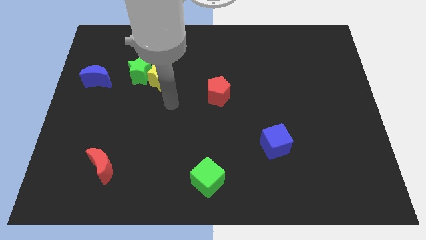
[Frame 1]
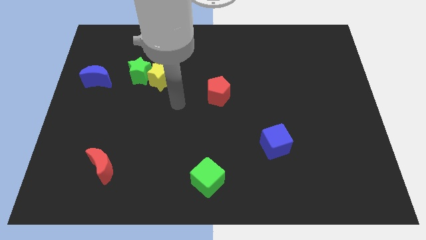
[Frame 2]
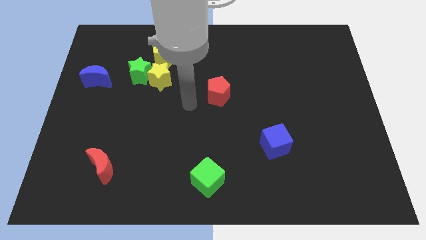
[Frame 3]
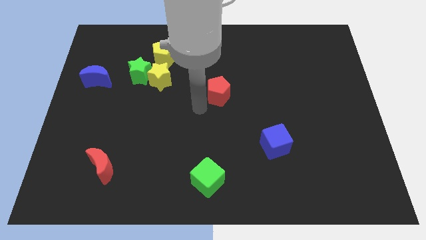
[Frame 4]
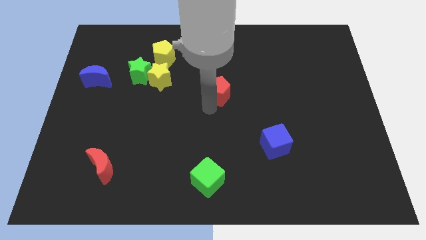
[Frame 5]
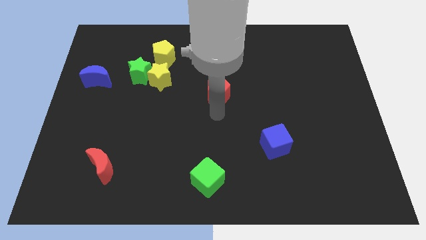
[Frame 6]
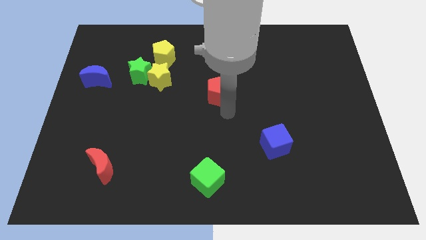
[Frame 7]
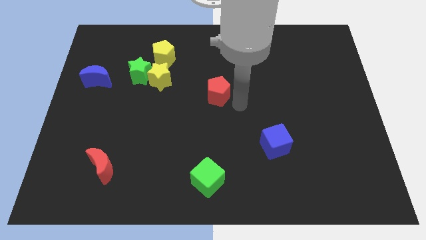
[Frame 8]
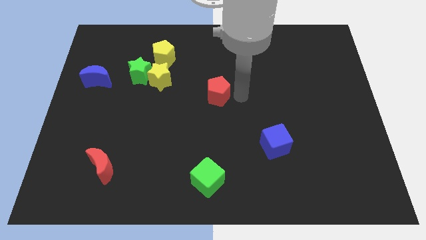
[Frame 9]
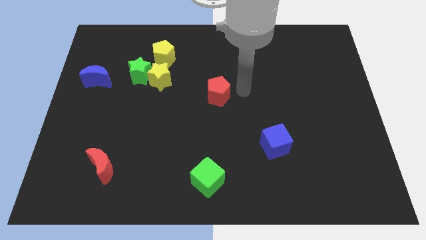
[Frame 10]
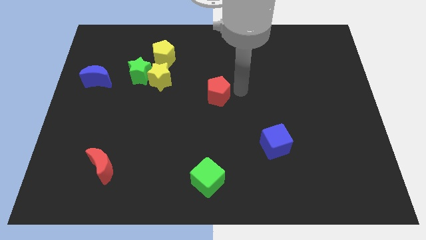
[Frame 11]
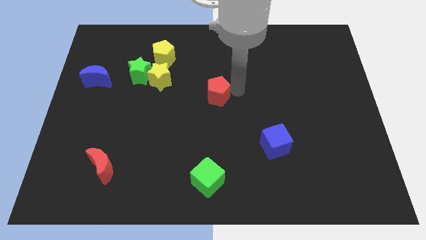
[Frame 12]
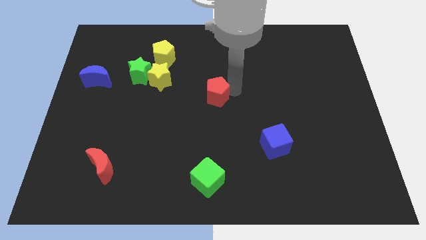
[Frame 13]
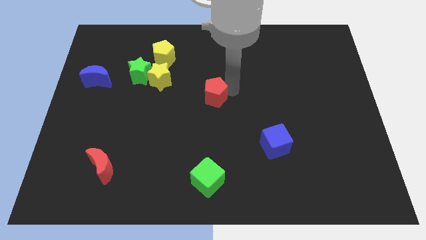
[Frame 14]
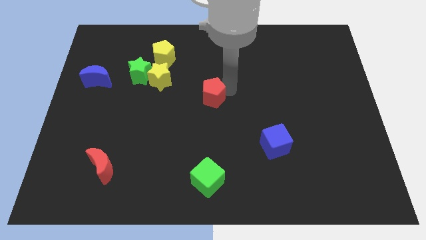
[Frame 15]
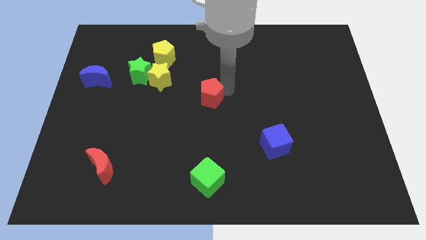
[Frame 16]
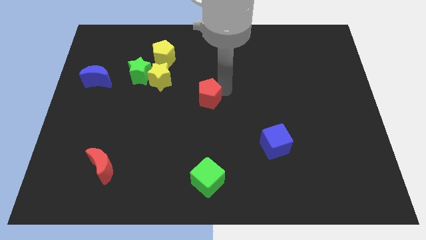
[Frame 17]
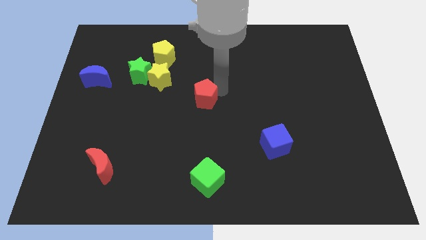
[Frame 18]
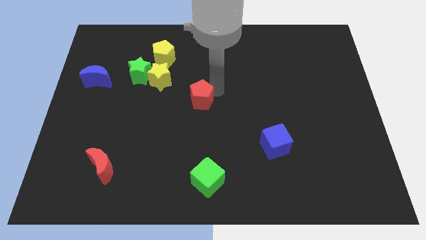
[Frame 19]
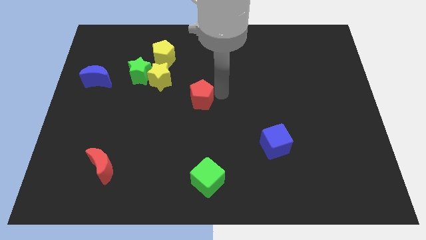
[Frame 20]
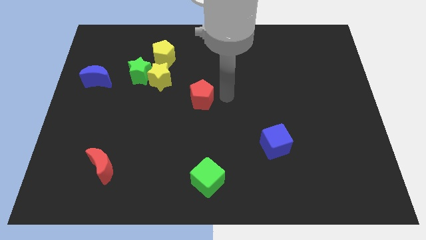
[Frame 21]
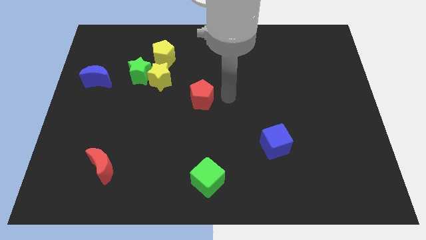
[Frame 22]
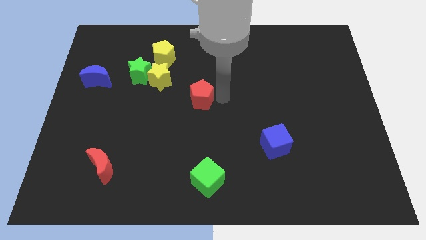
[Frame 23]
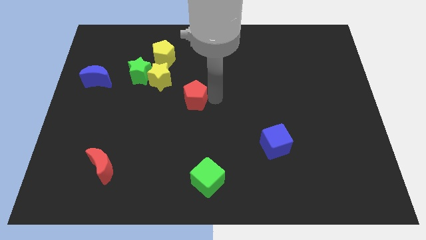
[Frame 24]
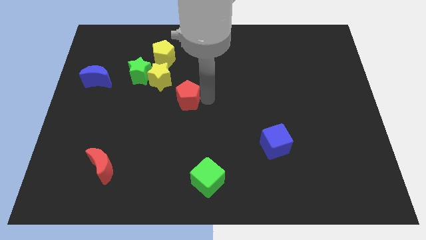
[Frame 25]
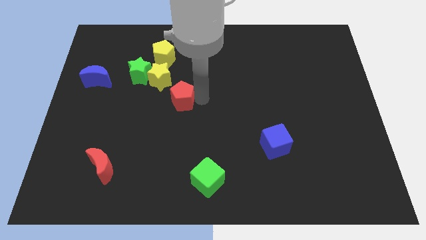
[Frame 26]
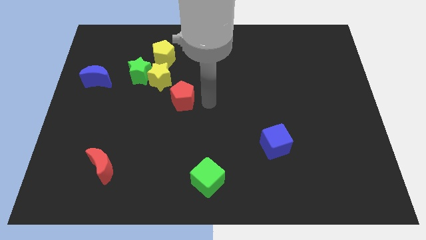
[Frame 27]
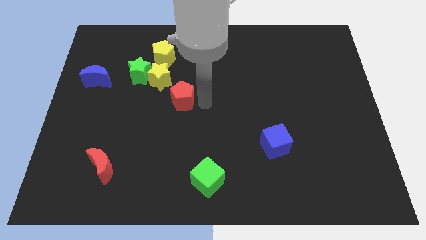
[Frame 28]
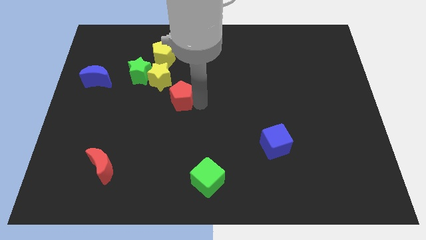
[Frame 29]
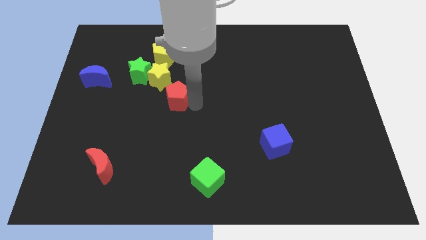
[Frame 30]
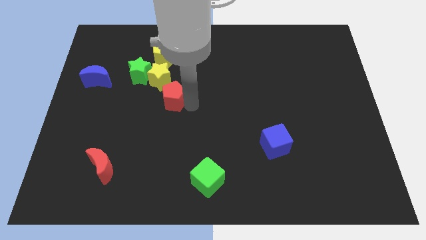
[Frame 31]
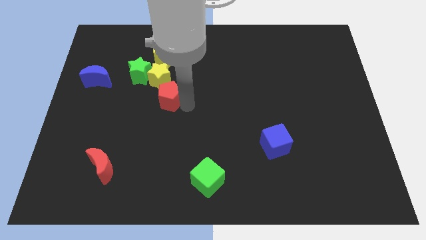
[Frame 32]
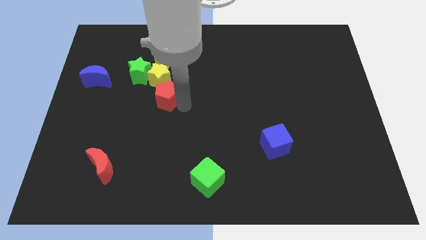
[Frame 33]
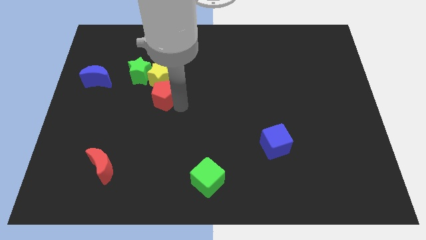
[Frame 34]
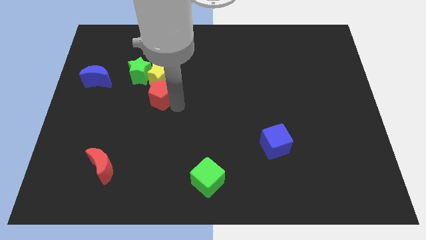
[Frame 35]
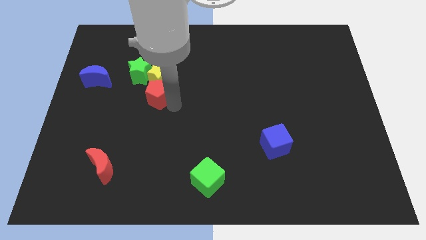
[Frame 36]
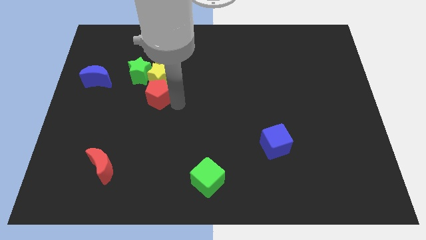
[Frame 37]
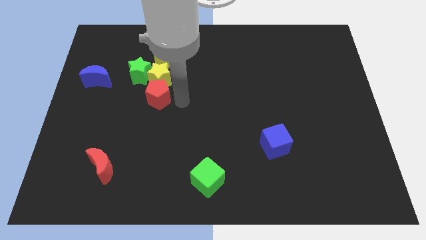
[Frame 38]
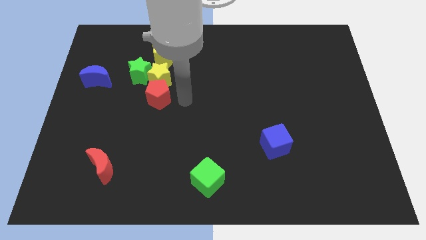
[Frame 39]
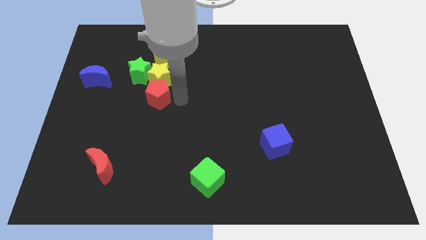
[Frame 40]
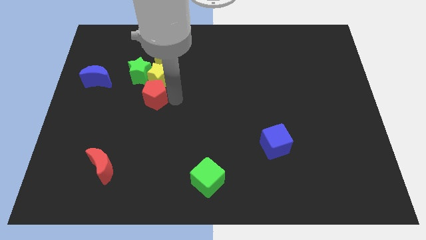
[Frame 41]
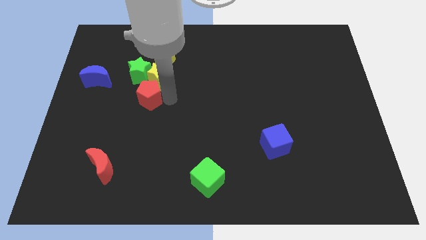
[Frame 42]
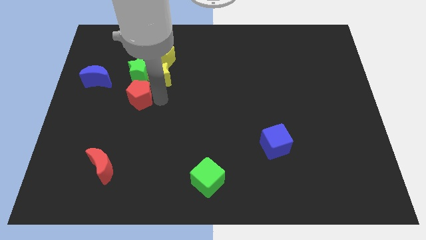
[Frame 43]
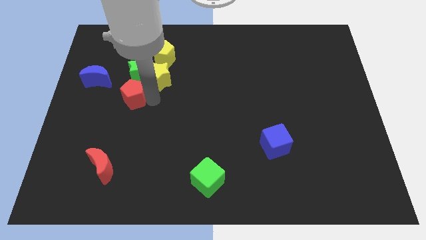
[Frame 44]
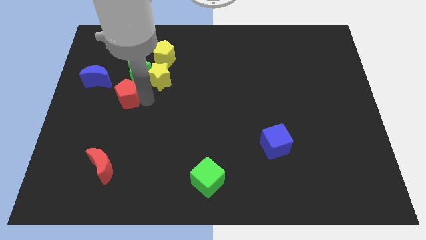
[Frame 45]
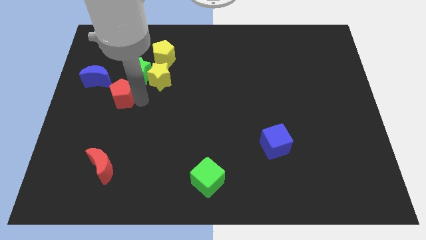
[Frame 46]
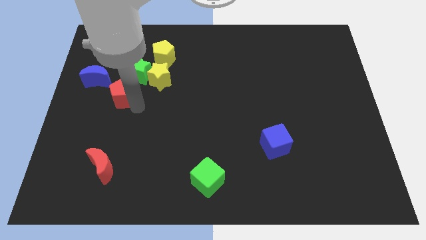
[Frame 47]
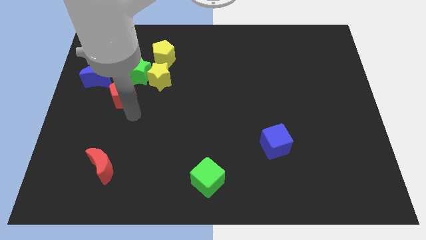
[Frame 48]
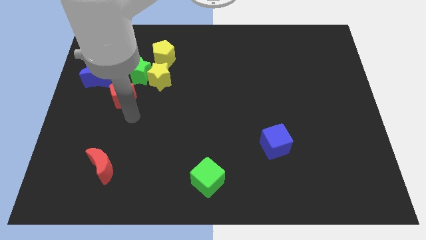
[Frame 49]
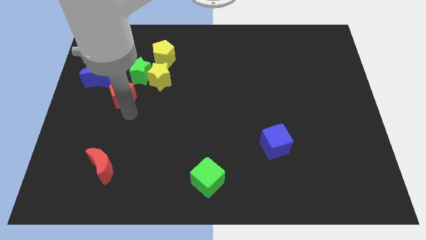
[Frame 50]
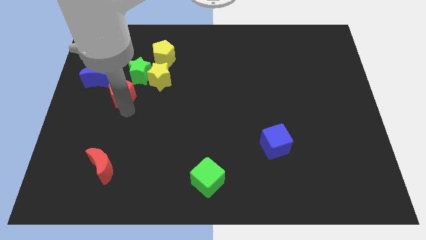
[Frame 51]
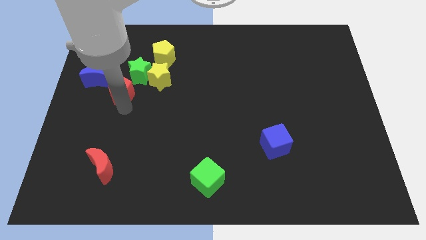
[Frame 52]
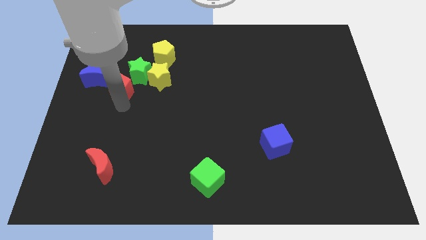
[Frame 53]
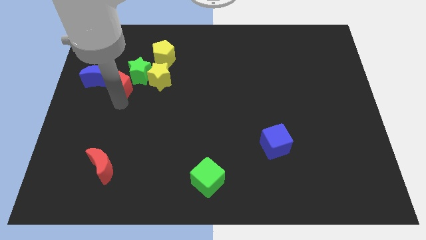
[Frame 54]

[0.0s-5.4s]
move the red pentagon to the left of the green star

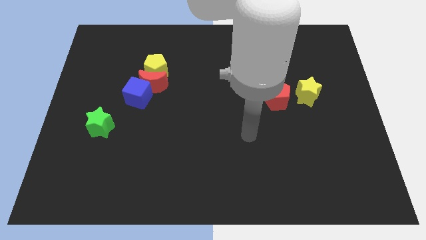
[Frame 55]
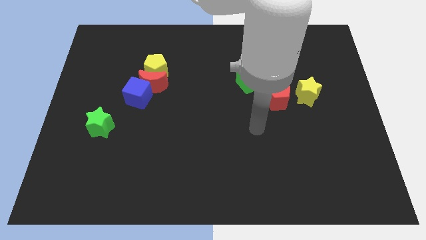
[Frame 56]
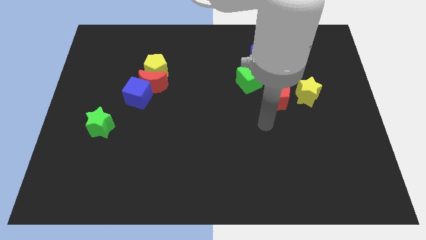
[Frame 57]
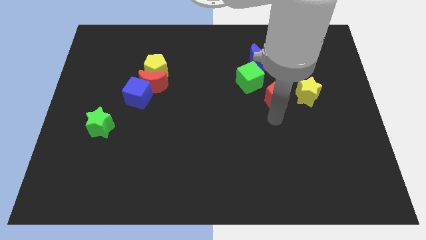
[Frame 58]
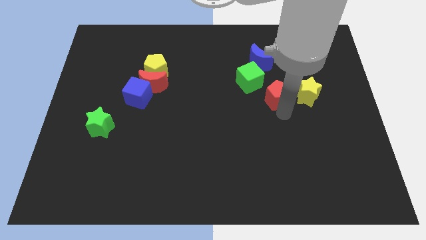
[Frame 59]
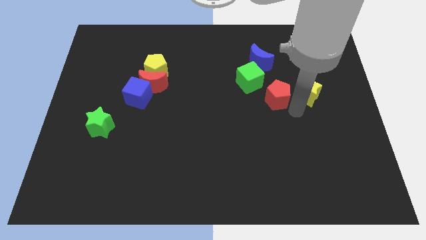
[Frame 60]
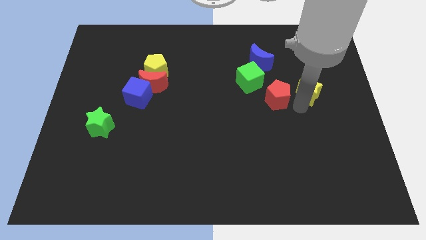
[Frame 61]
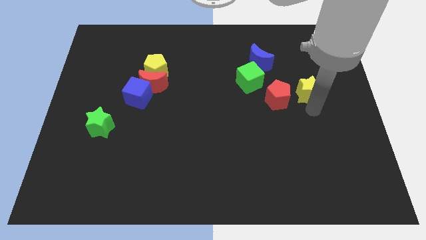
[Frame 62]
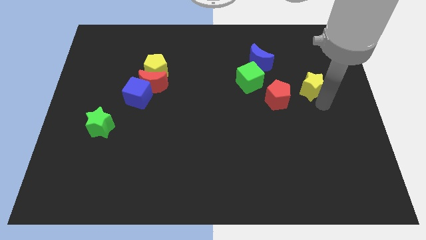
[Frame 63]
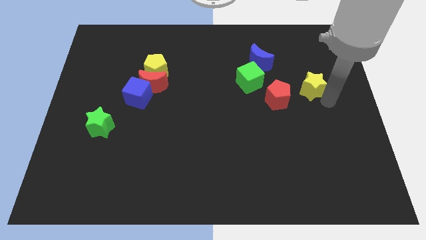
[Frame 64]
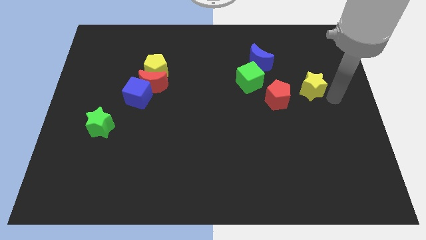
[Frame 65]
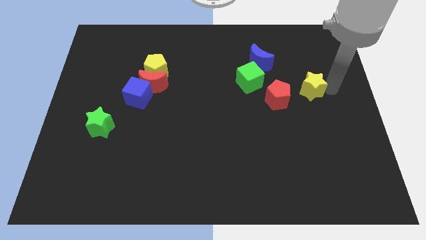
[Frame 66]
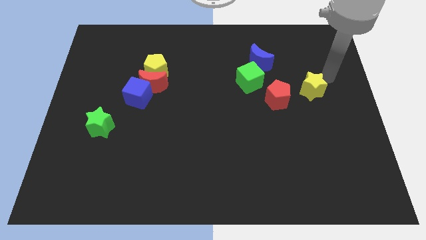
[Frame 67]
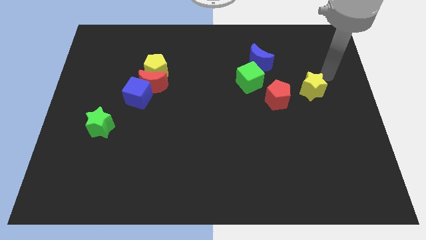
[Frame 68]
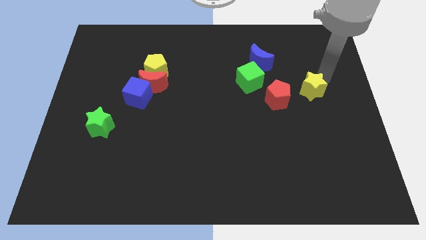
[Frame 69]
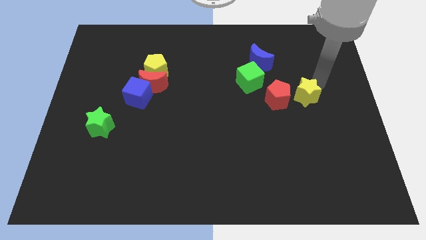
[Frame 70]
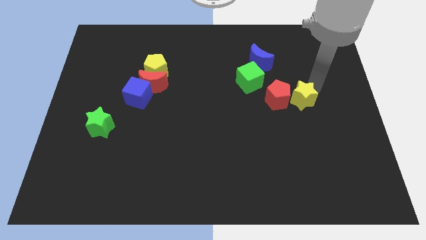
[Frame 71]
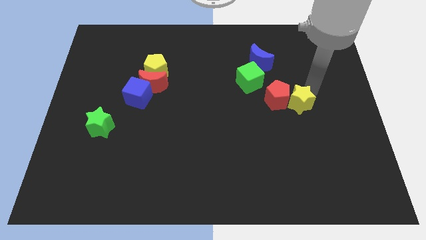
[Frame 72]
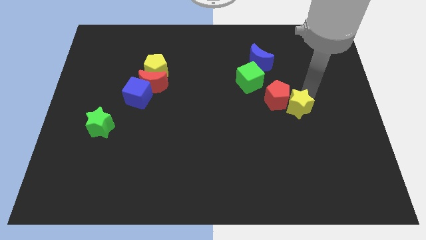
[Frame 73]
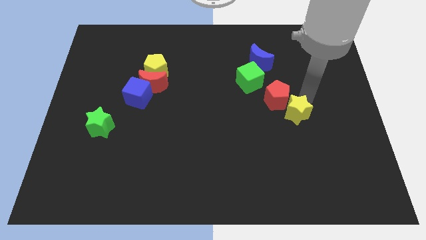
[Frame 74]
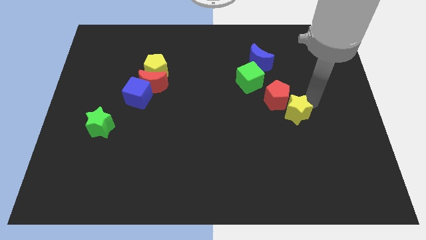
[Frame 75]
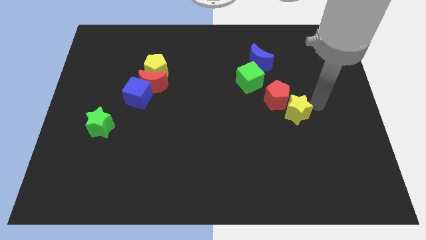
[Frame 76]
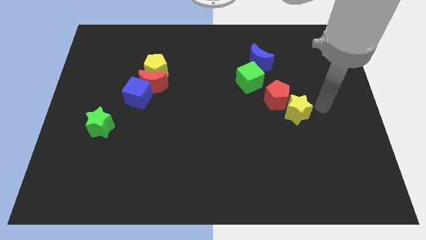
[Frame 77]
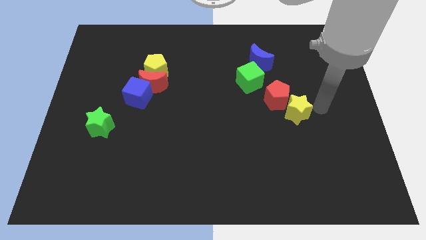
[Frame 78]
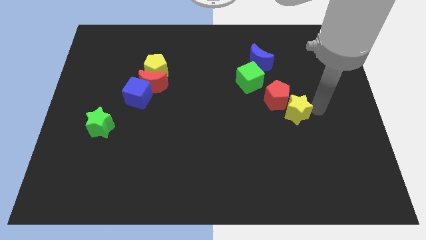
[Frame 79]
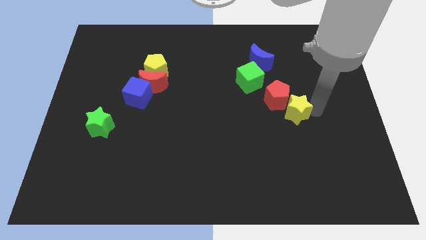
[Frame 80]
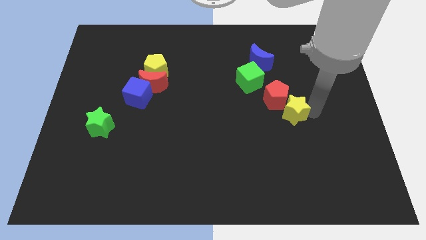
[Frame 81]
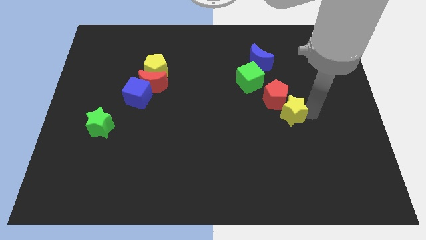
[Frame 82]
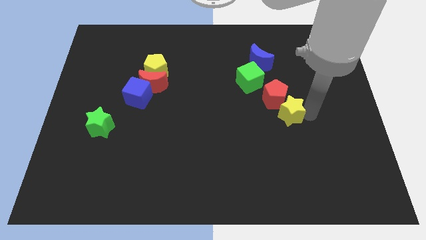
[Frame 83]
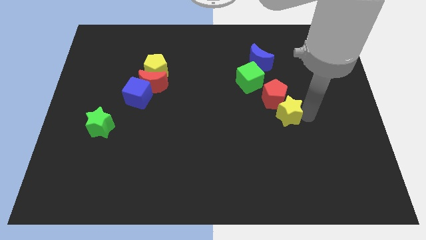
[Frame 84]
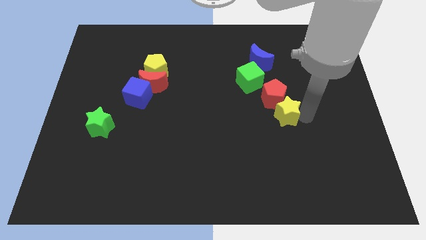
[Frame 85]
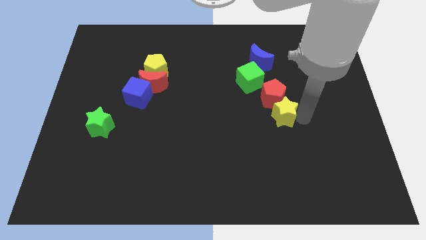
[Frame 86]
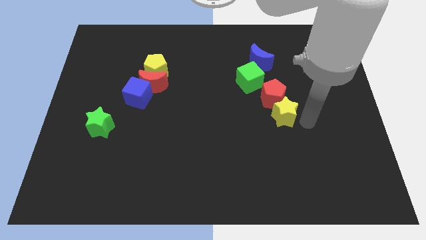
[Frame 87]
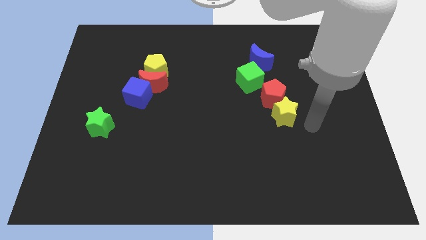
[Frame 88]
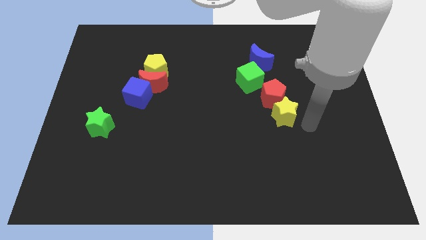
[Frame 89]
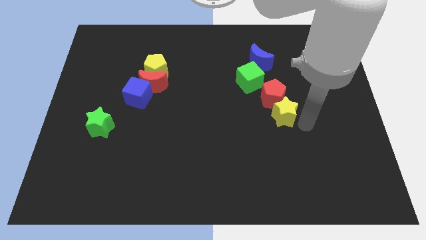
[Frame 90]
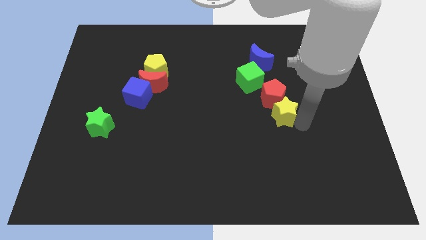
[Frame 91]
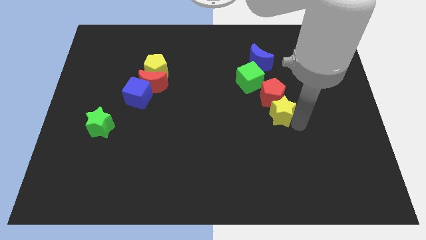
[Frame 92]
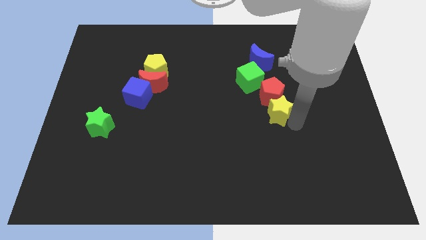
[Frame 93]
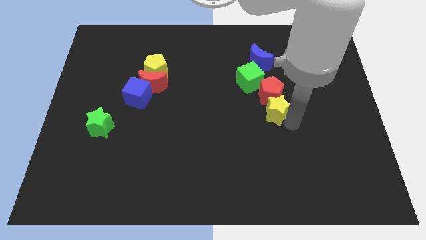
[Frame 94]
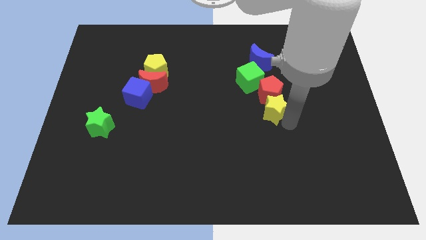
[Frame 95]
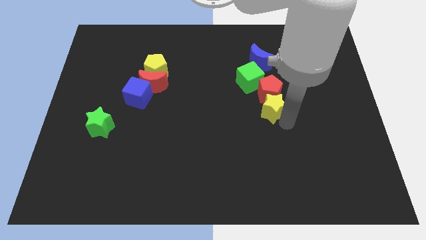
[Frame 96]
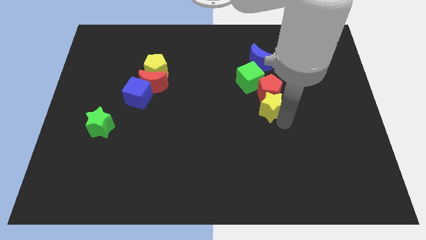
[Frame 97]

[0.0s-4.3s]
move the yellow star to the bottom of the blue moon
